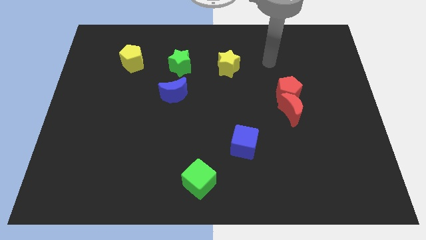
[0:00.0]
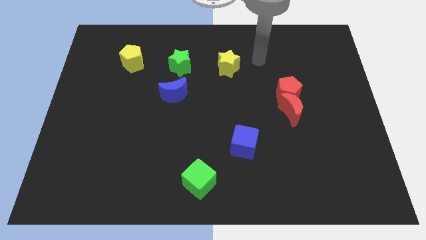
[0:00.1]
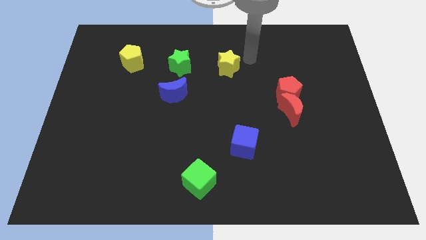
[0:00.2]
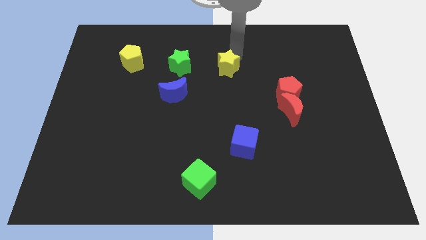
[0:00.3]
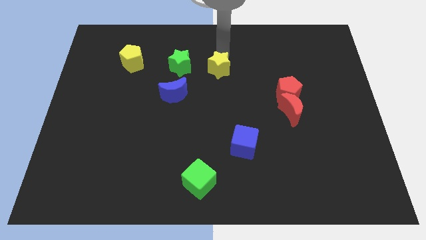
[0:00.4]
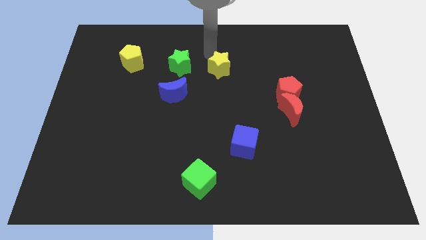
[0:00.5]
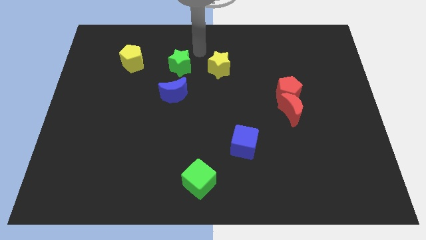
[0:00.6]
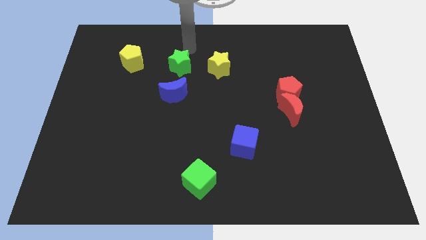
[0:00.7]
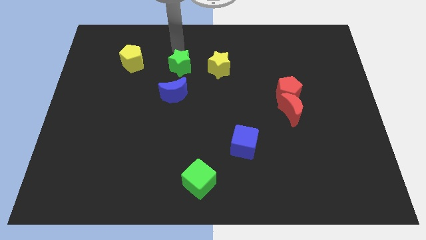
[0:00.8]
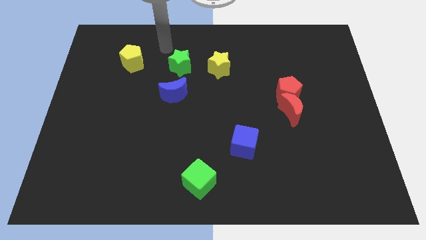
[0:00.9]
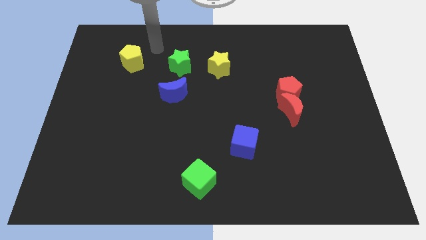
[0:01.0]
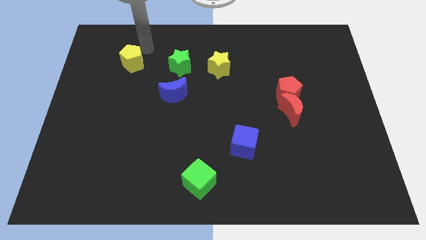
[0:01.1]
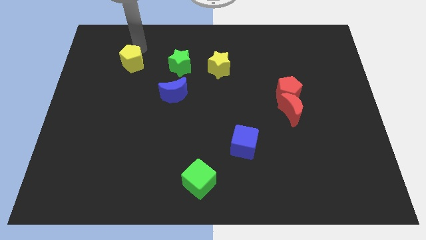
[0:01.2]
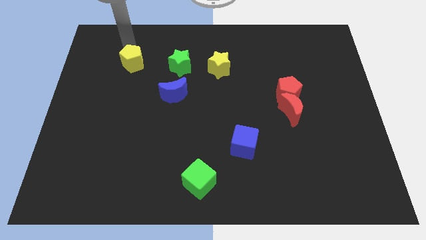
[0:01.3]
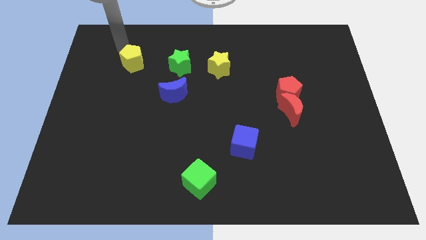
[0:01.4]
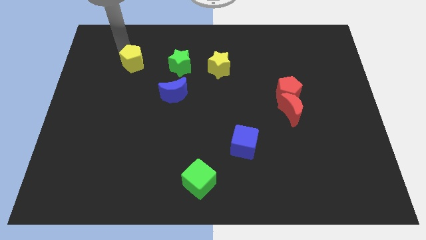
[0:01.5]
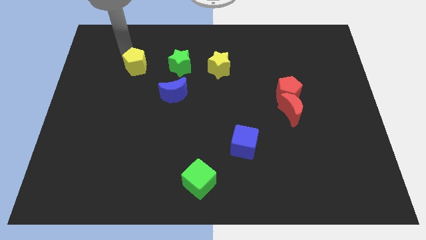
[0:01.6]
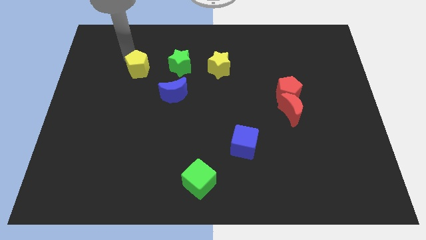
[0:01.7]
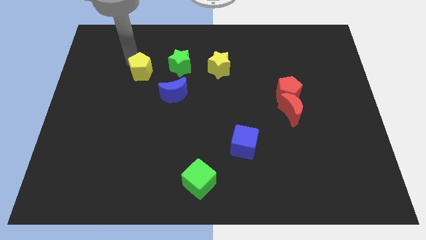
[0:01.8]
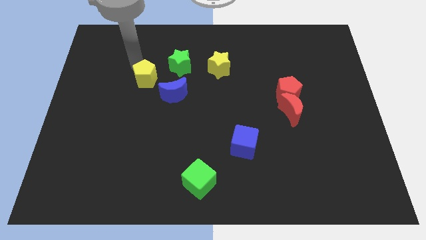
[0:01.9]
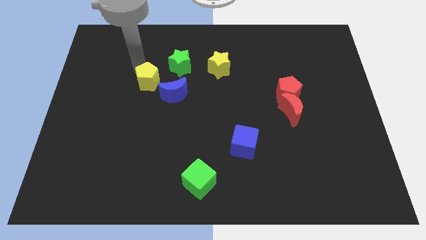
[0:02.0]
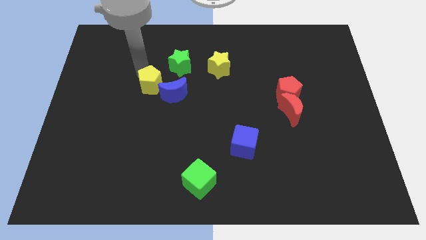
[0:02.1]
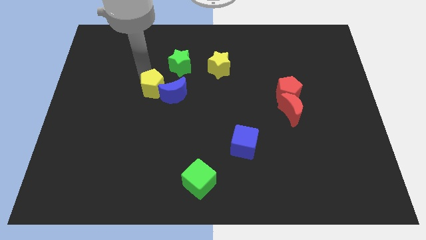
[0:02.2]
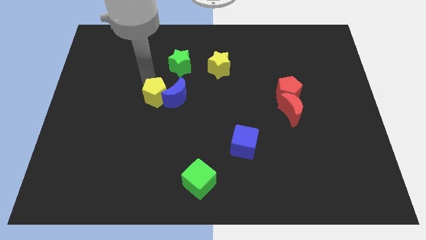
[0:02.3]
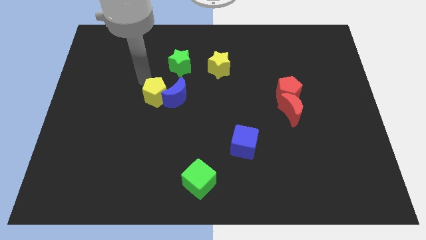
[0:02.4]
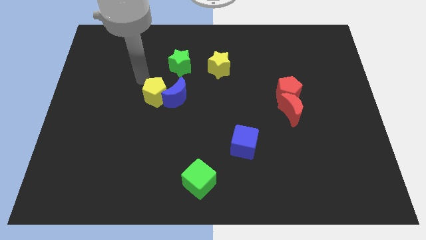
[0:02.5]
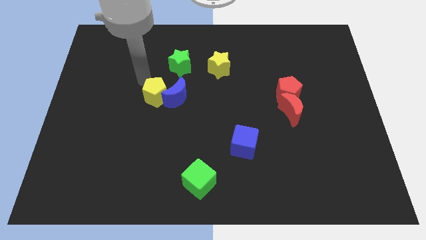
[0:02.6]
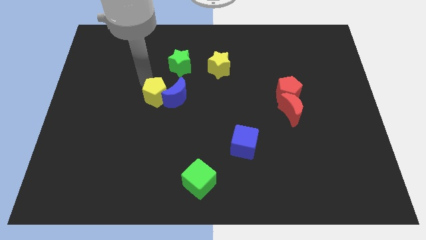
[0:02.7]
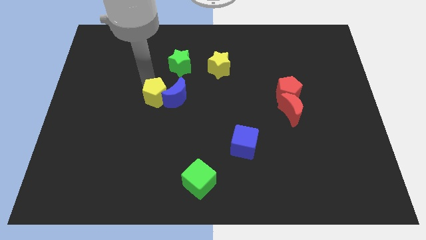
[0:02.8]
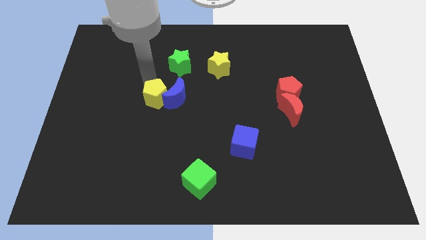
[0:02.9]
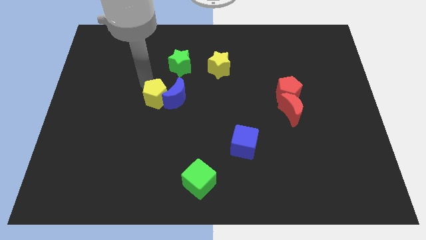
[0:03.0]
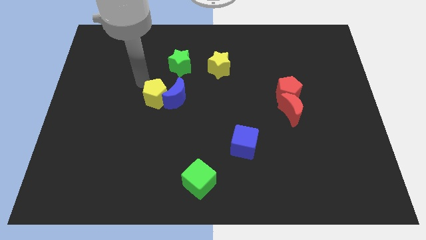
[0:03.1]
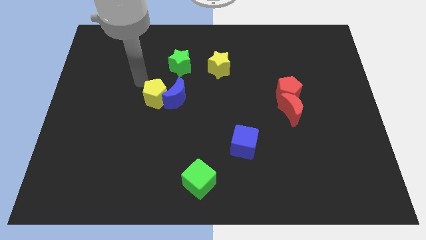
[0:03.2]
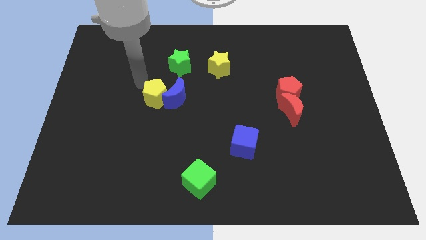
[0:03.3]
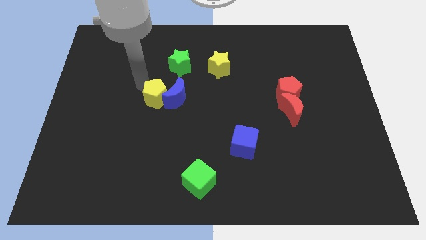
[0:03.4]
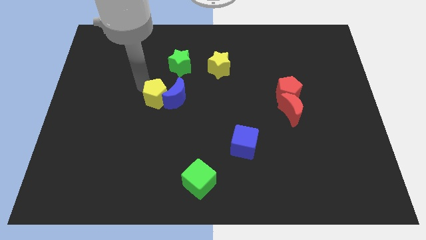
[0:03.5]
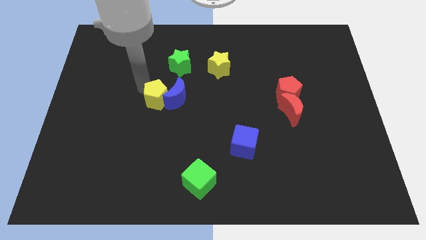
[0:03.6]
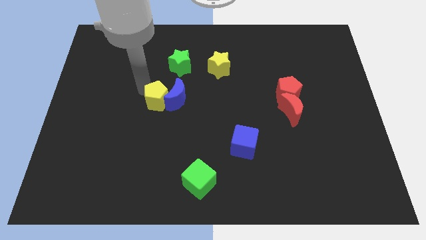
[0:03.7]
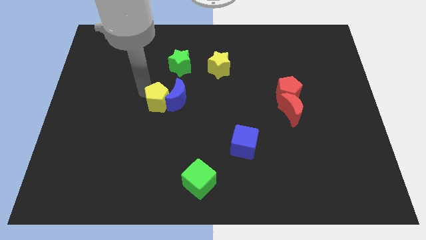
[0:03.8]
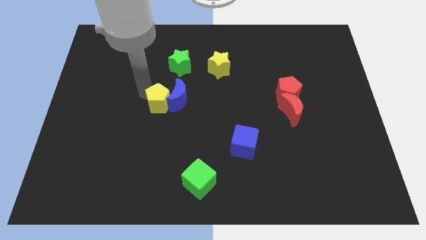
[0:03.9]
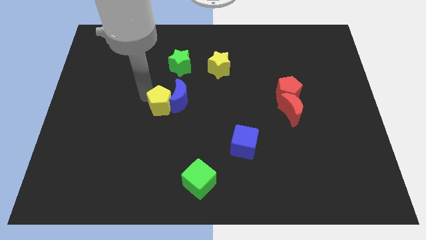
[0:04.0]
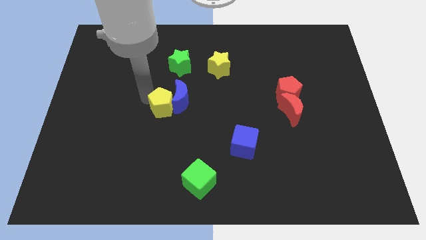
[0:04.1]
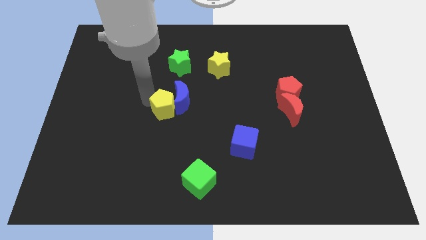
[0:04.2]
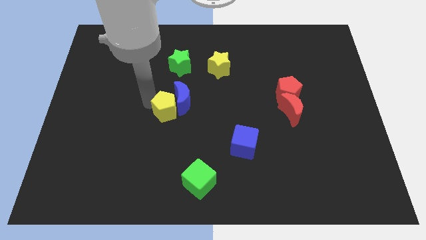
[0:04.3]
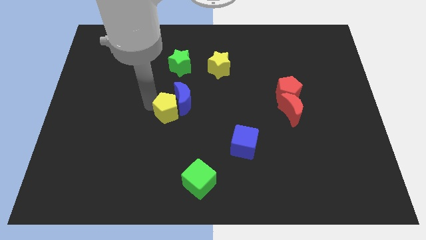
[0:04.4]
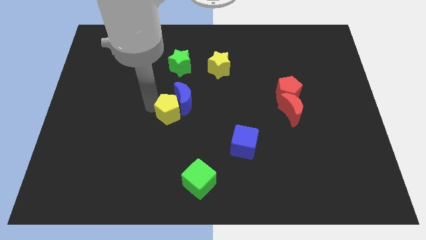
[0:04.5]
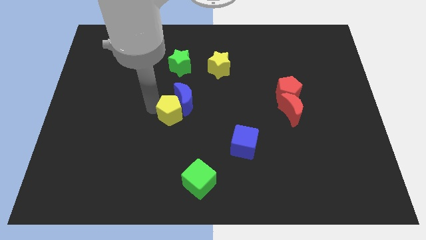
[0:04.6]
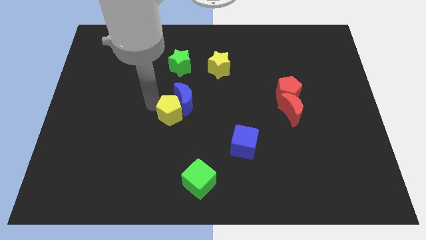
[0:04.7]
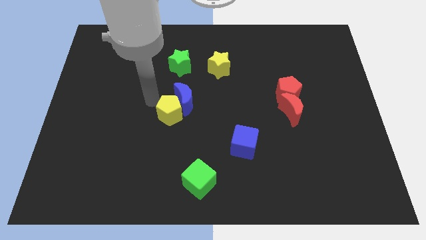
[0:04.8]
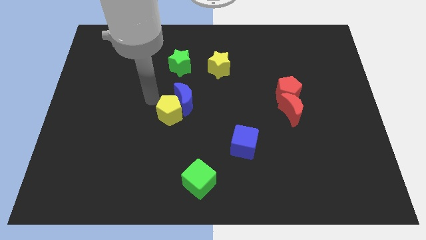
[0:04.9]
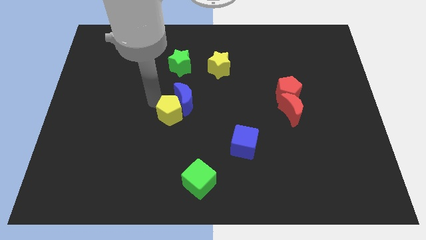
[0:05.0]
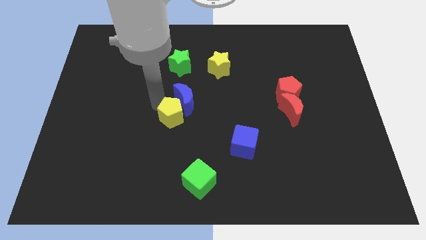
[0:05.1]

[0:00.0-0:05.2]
move the yellow pentagon down and right

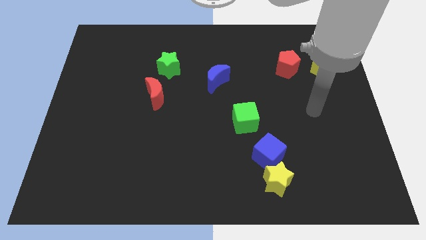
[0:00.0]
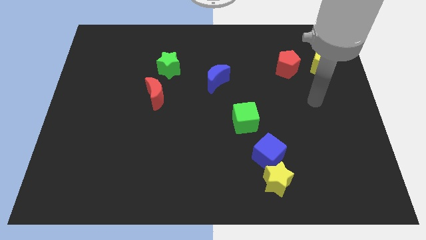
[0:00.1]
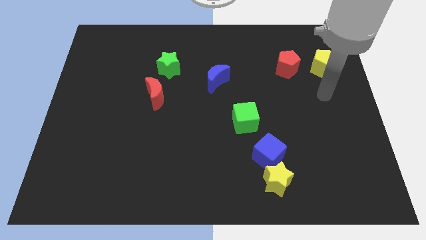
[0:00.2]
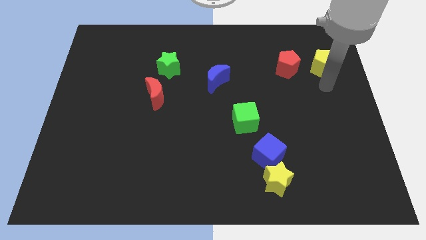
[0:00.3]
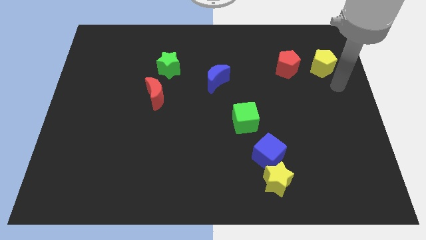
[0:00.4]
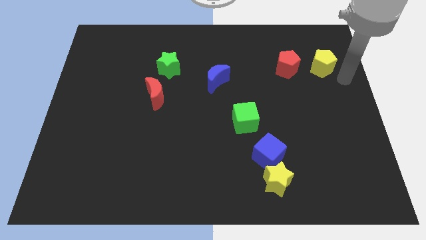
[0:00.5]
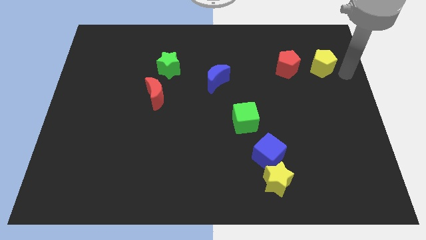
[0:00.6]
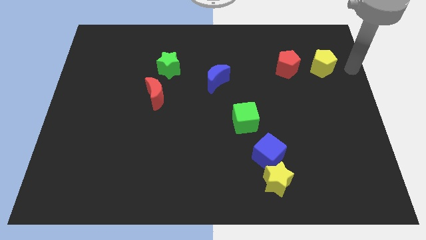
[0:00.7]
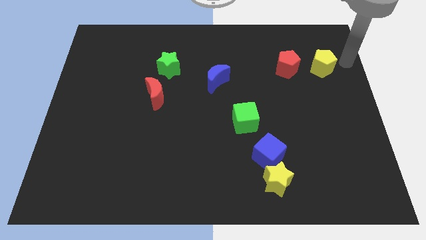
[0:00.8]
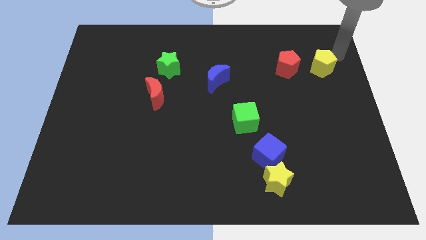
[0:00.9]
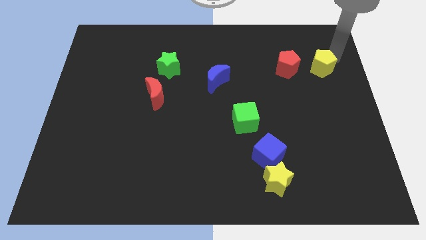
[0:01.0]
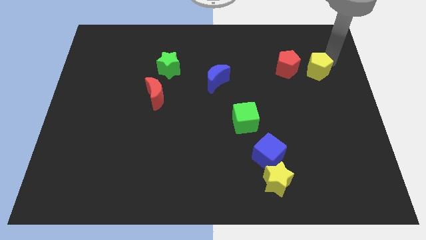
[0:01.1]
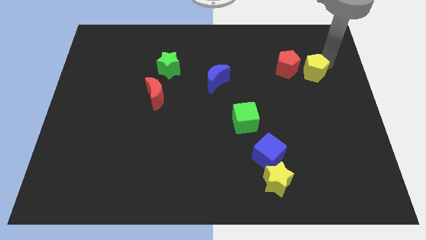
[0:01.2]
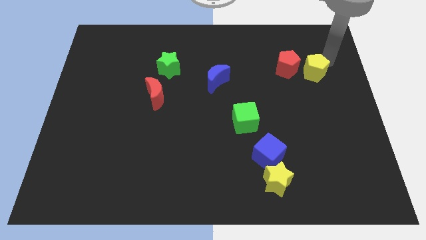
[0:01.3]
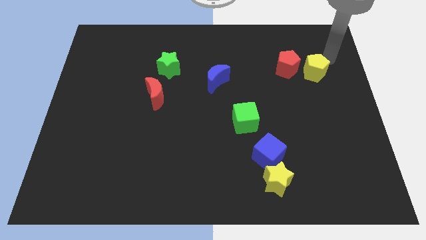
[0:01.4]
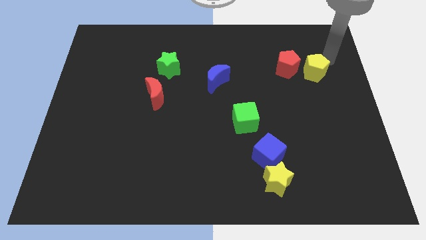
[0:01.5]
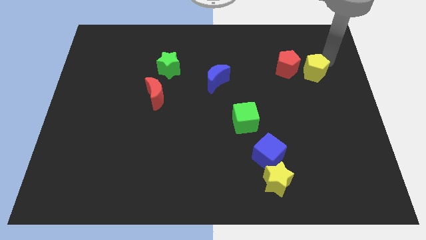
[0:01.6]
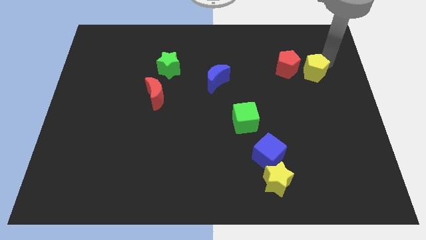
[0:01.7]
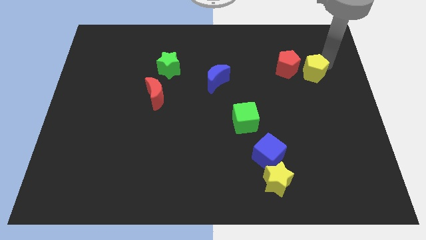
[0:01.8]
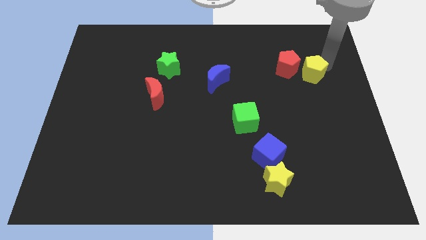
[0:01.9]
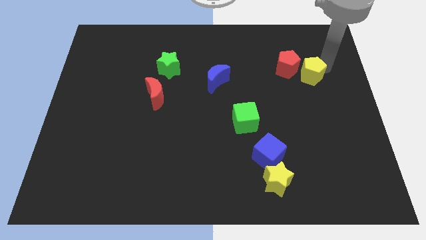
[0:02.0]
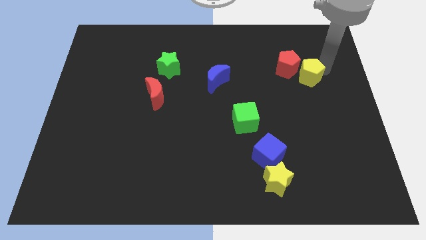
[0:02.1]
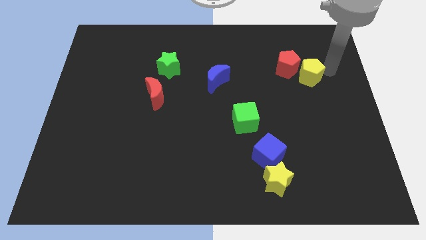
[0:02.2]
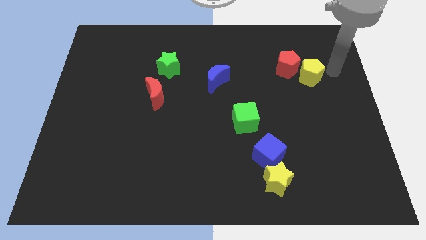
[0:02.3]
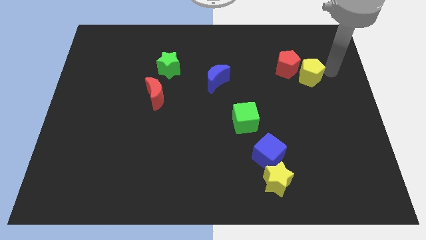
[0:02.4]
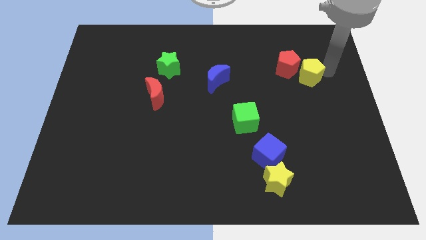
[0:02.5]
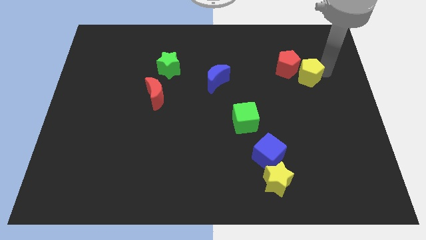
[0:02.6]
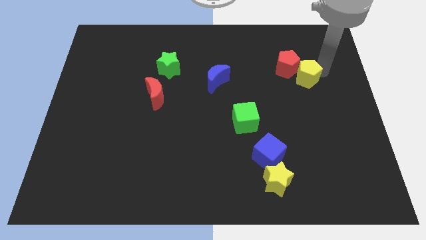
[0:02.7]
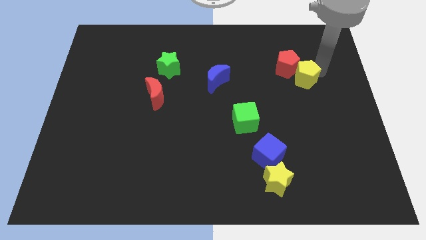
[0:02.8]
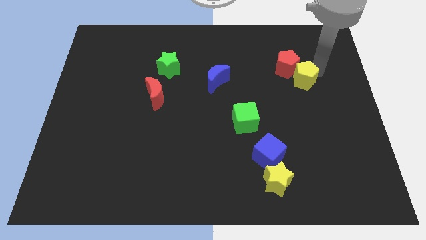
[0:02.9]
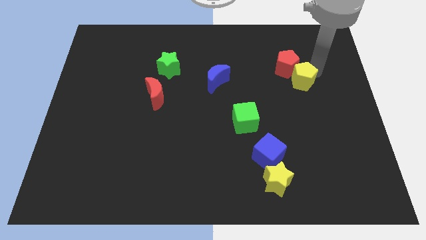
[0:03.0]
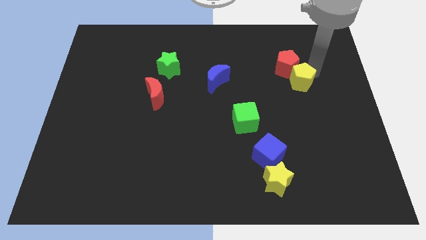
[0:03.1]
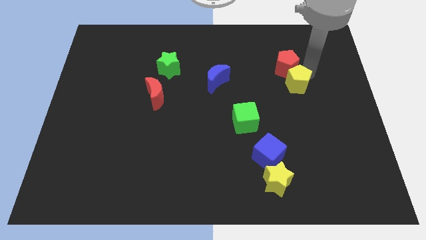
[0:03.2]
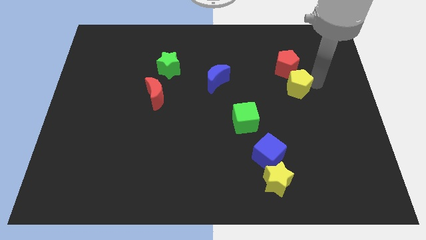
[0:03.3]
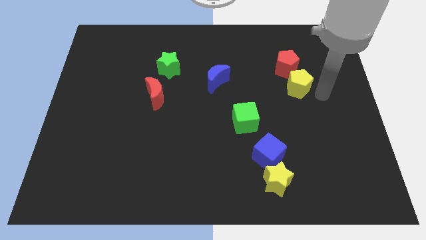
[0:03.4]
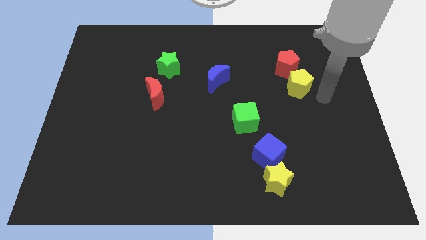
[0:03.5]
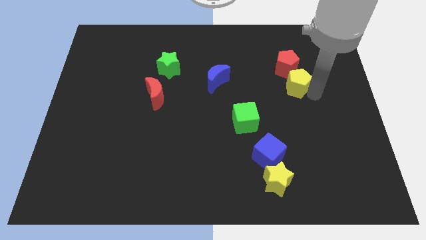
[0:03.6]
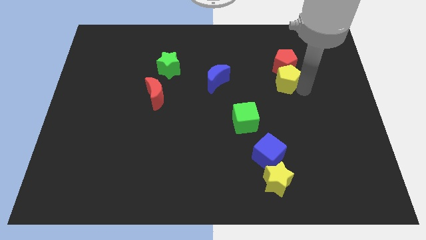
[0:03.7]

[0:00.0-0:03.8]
slightly move the yellow pentagon left
